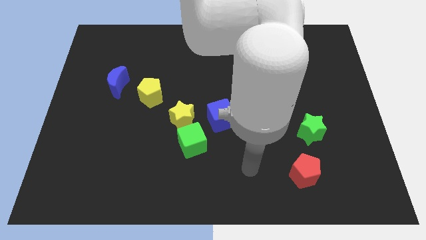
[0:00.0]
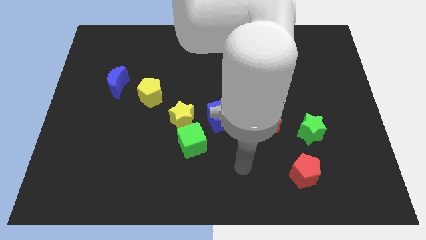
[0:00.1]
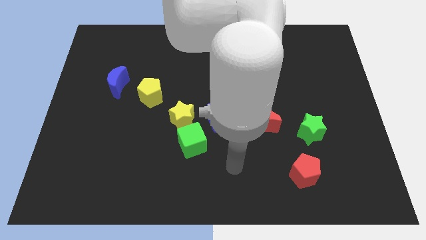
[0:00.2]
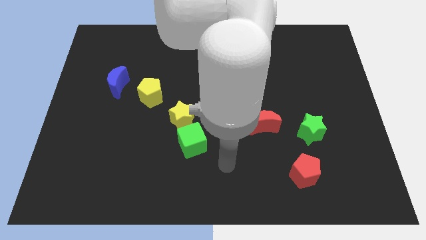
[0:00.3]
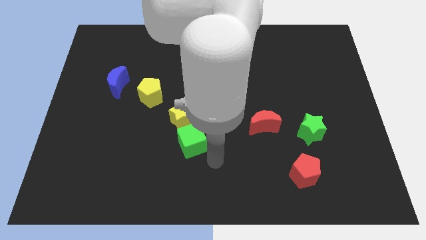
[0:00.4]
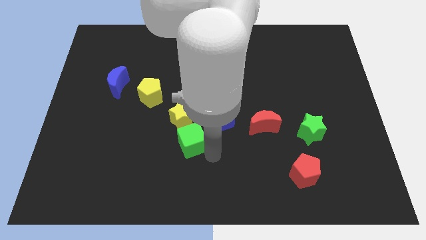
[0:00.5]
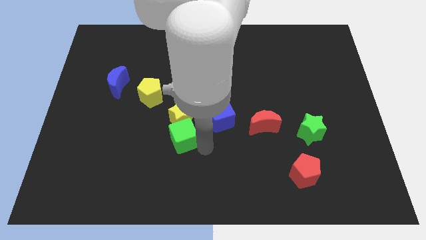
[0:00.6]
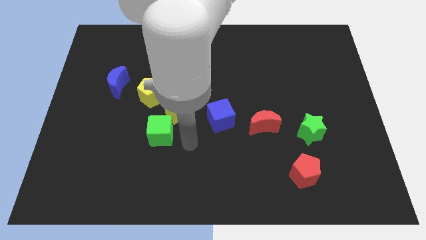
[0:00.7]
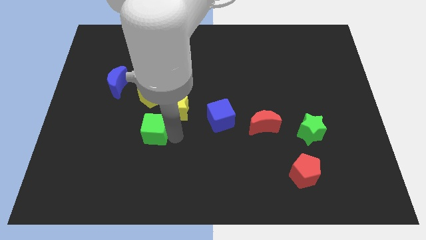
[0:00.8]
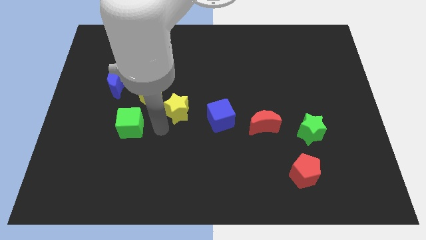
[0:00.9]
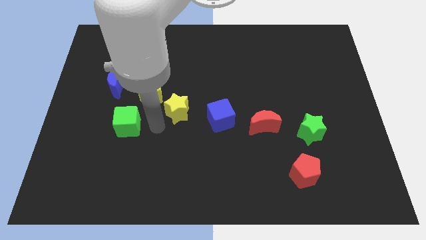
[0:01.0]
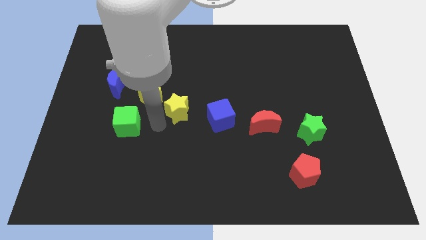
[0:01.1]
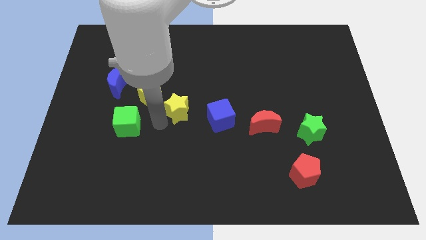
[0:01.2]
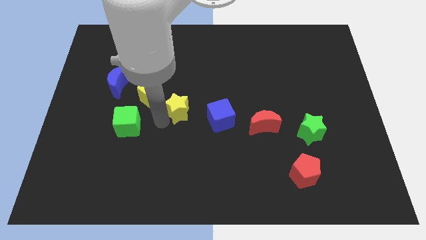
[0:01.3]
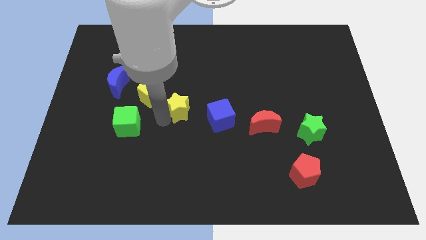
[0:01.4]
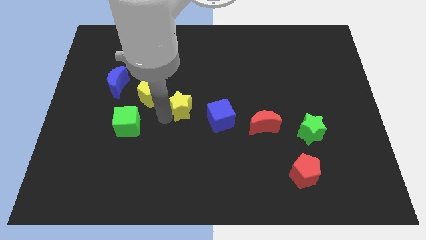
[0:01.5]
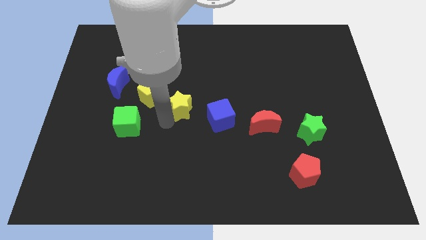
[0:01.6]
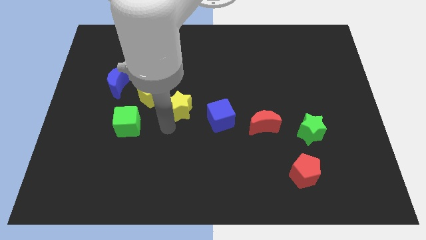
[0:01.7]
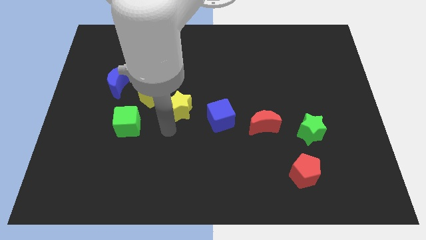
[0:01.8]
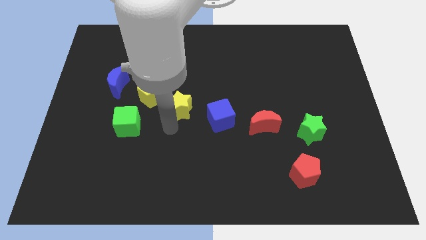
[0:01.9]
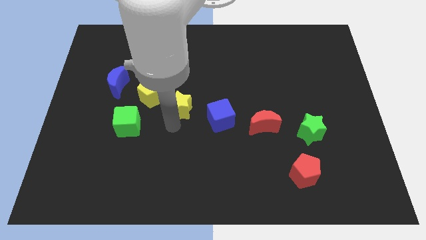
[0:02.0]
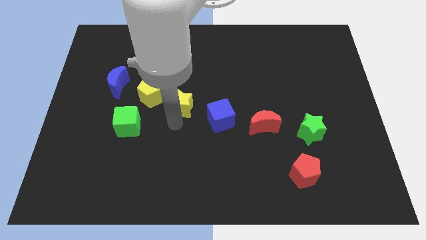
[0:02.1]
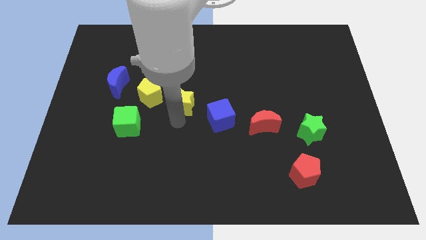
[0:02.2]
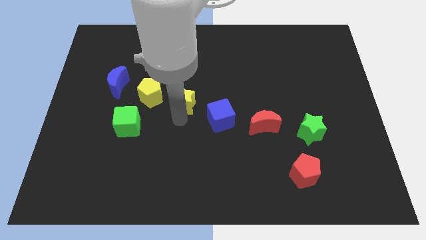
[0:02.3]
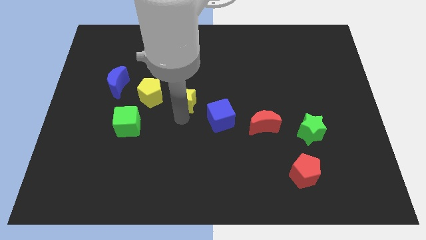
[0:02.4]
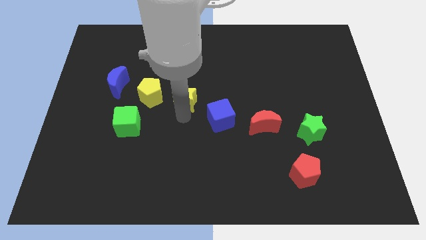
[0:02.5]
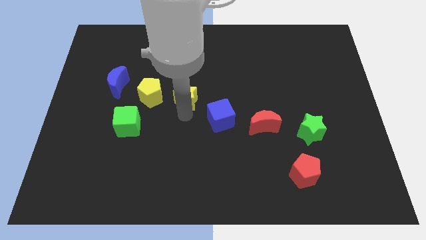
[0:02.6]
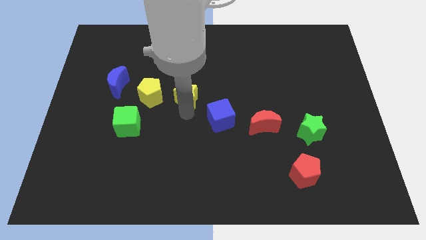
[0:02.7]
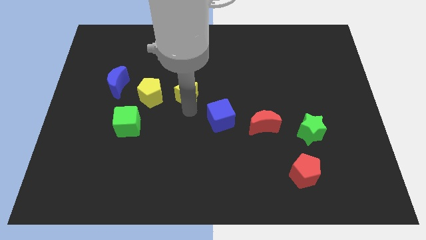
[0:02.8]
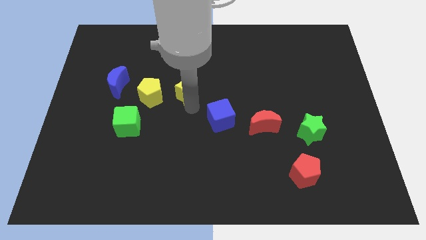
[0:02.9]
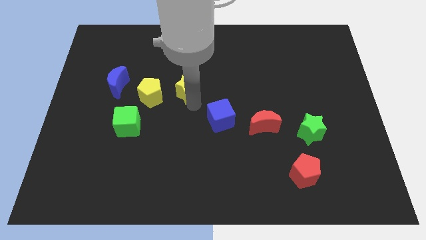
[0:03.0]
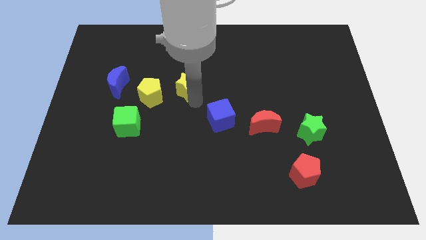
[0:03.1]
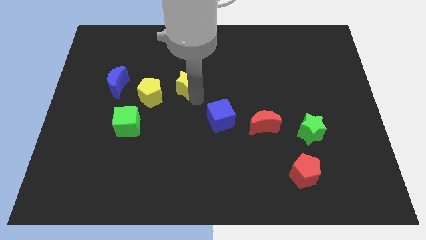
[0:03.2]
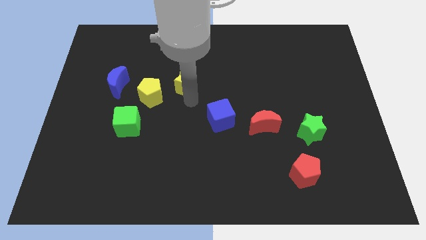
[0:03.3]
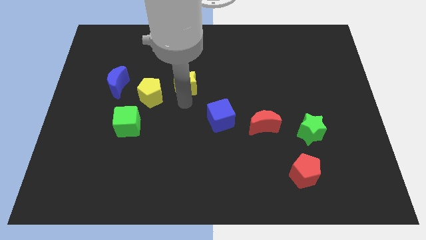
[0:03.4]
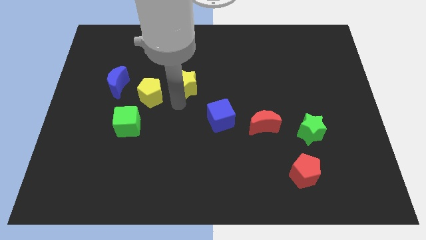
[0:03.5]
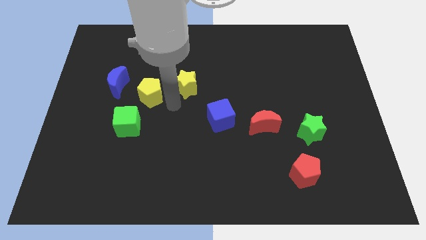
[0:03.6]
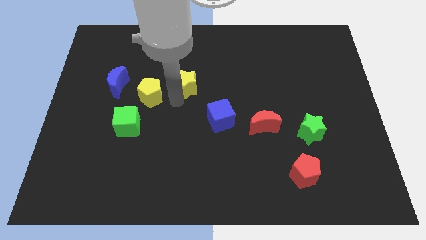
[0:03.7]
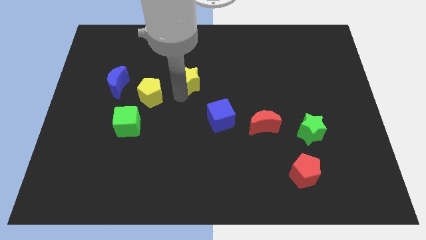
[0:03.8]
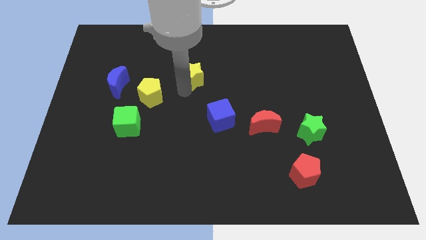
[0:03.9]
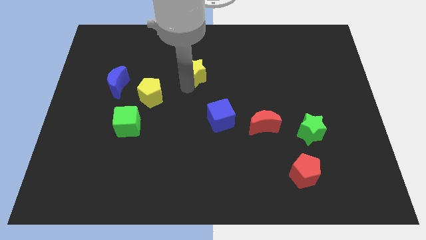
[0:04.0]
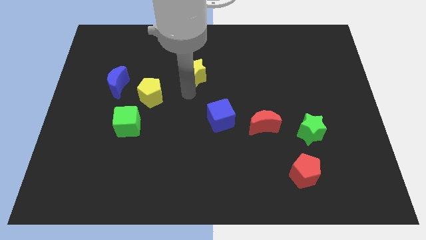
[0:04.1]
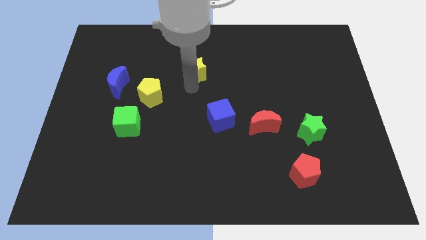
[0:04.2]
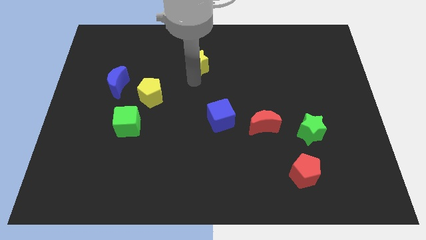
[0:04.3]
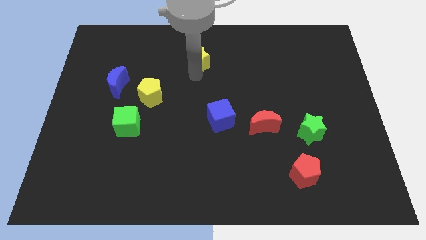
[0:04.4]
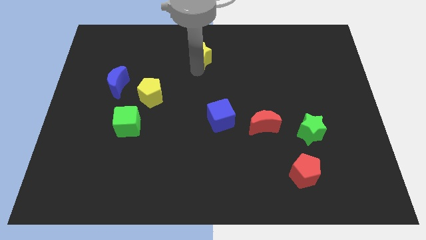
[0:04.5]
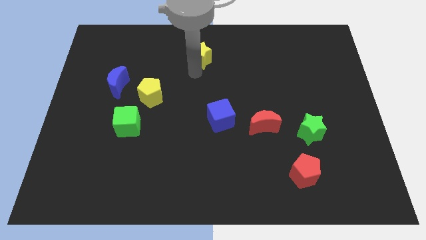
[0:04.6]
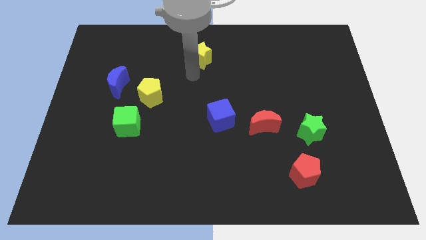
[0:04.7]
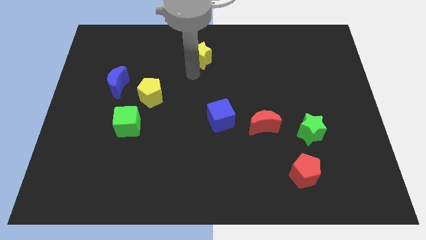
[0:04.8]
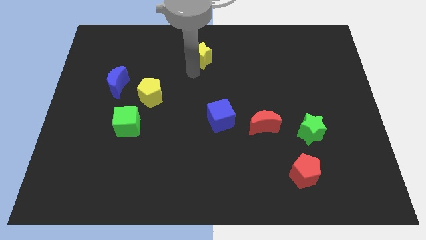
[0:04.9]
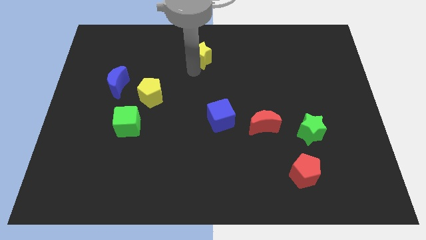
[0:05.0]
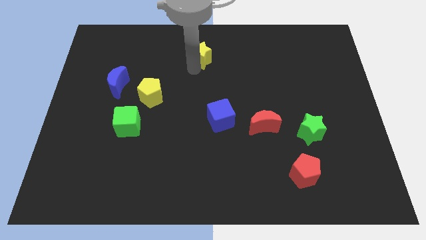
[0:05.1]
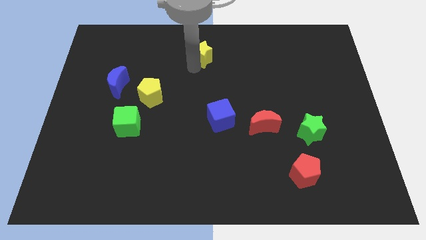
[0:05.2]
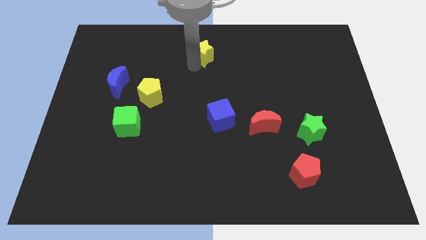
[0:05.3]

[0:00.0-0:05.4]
push the yellow star to the top

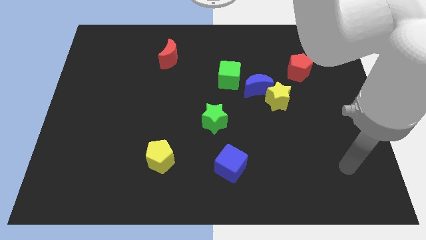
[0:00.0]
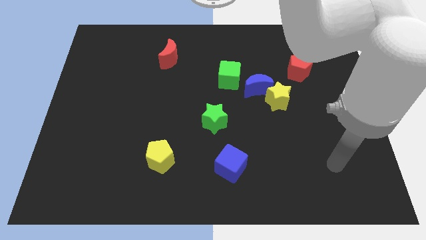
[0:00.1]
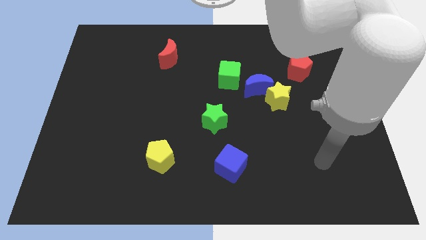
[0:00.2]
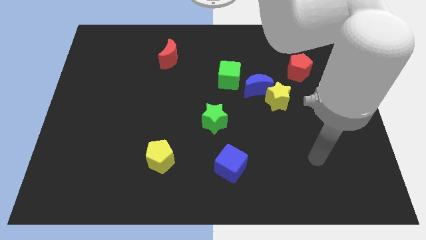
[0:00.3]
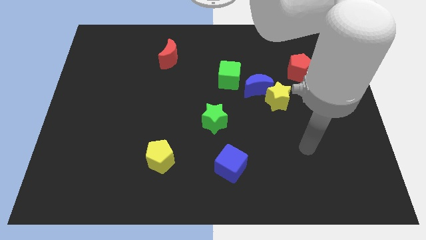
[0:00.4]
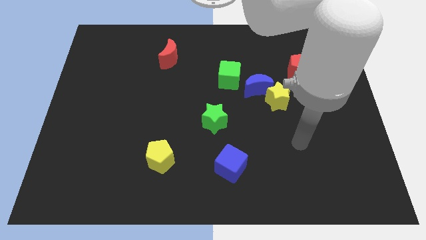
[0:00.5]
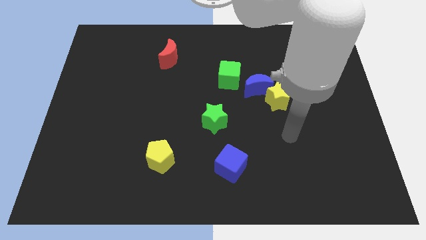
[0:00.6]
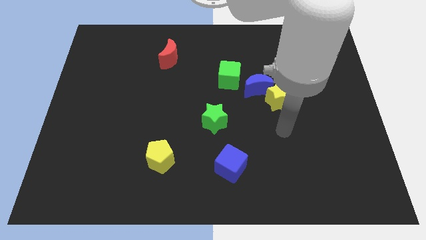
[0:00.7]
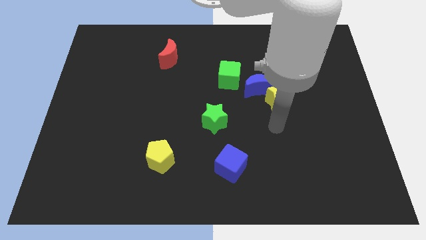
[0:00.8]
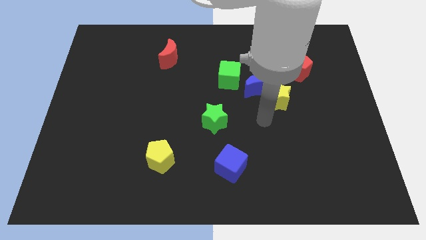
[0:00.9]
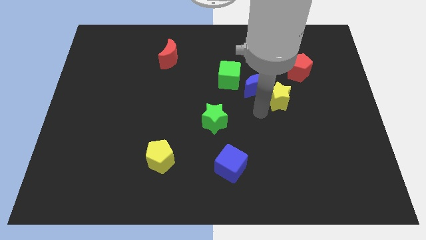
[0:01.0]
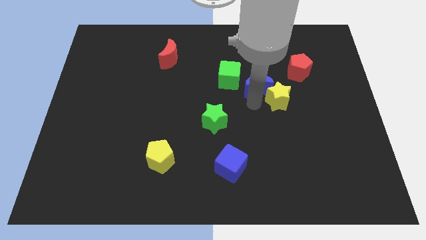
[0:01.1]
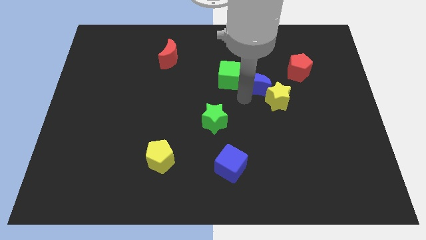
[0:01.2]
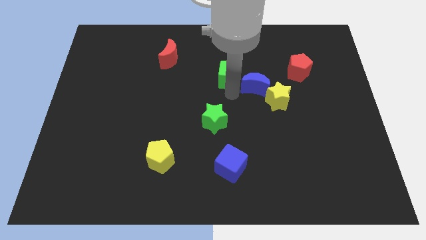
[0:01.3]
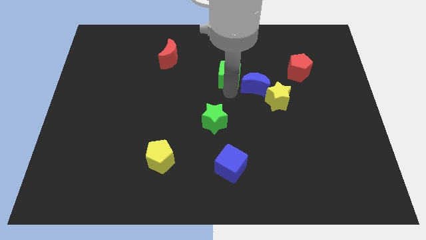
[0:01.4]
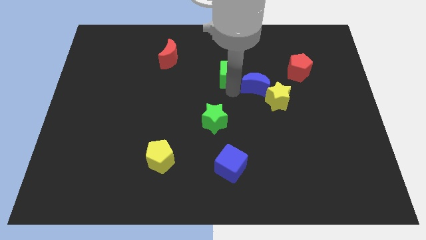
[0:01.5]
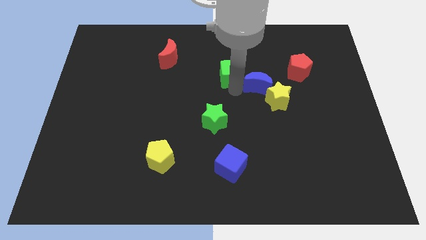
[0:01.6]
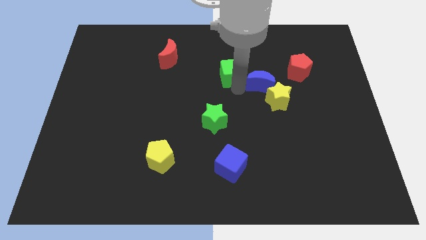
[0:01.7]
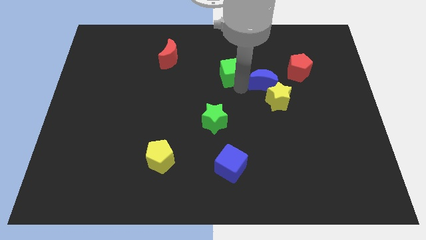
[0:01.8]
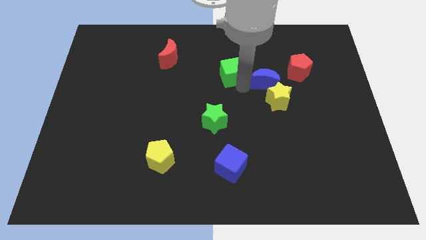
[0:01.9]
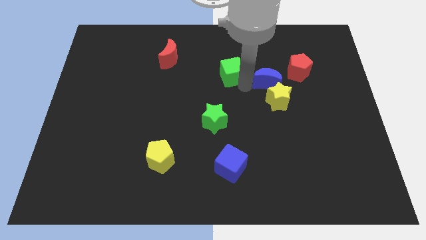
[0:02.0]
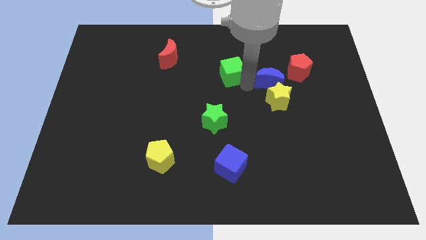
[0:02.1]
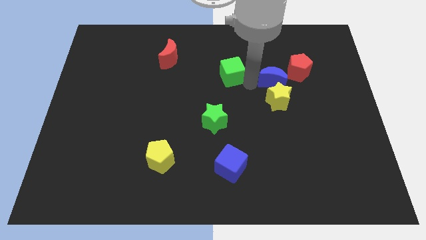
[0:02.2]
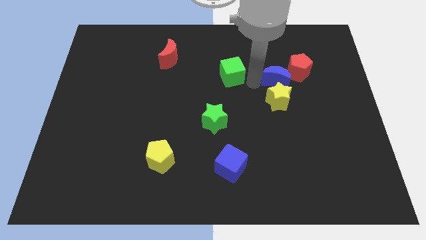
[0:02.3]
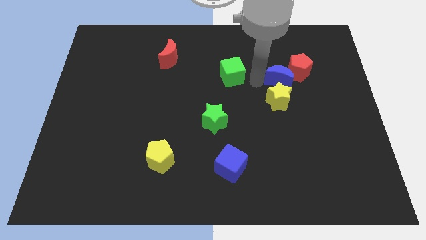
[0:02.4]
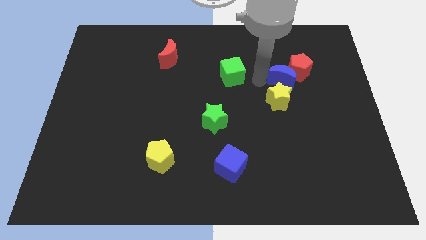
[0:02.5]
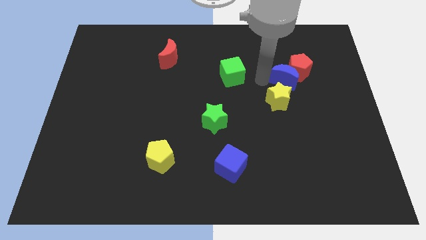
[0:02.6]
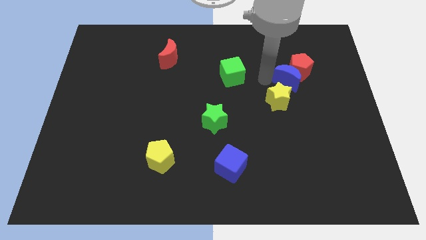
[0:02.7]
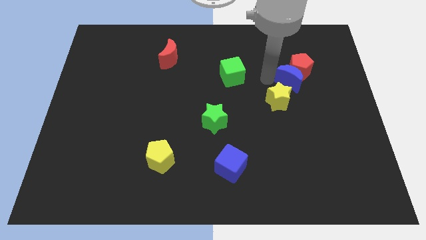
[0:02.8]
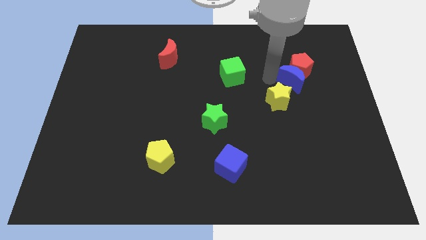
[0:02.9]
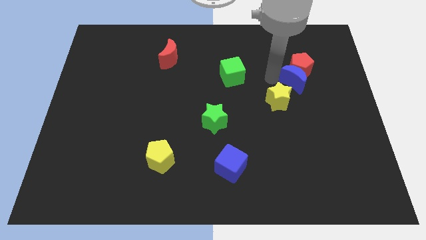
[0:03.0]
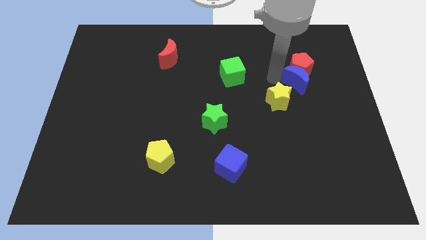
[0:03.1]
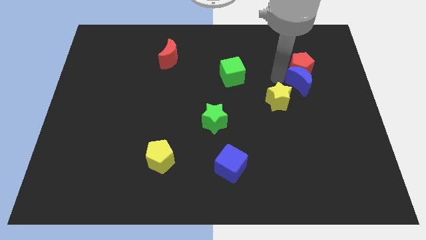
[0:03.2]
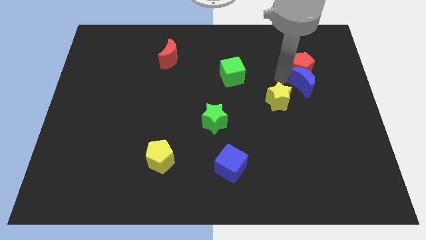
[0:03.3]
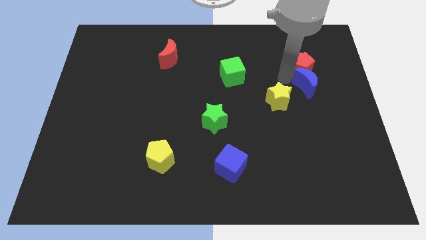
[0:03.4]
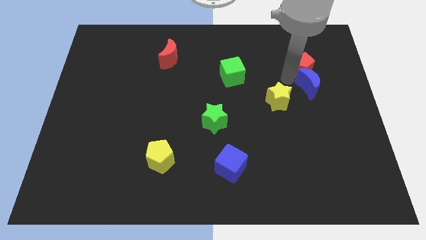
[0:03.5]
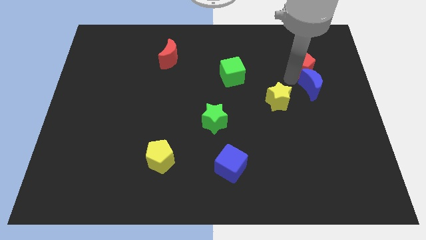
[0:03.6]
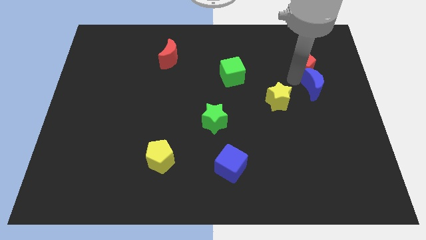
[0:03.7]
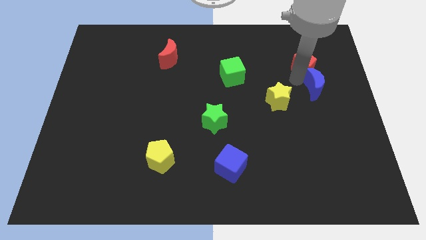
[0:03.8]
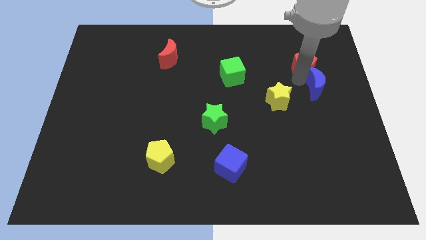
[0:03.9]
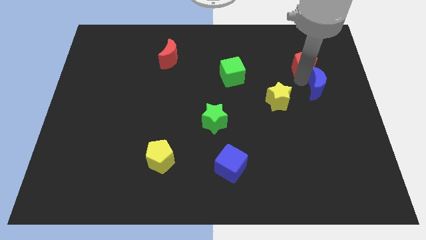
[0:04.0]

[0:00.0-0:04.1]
move the blue moon to the right side of the board
